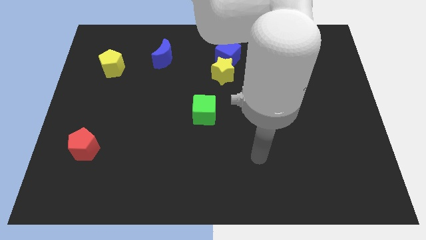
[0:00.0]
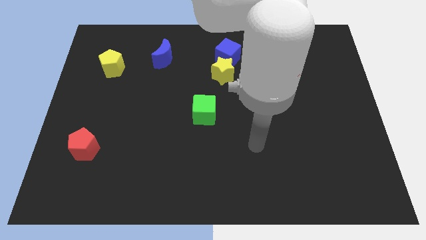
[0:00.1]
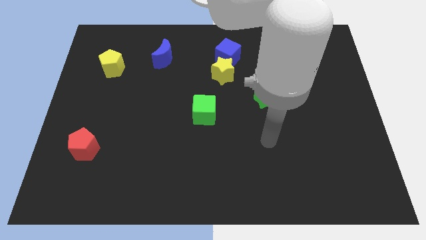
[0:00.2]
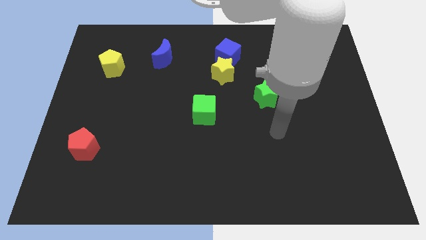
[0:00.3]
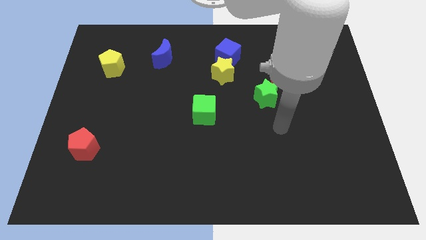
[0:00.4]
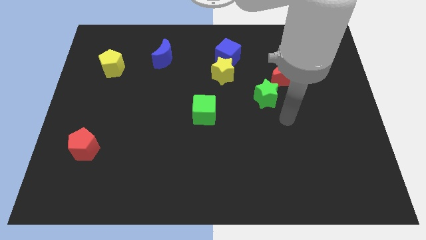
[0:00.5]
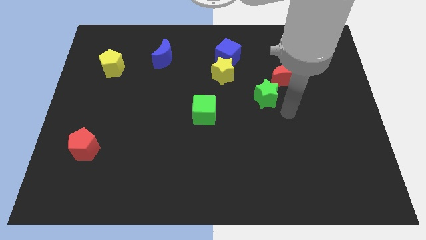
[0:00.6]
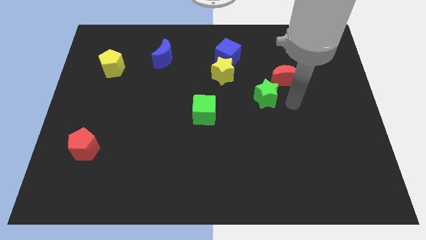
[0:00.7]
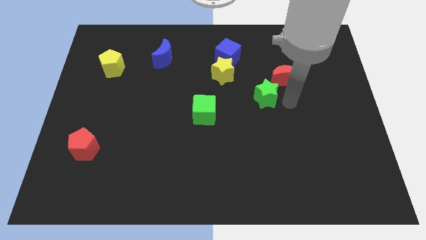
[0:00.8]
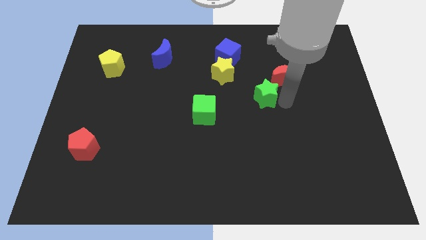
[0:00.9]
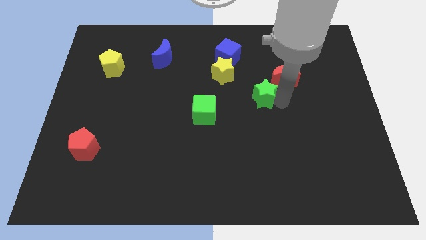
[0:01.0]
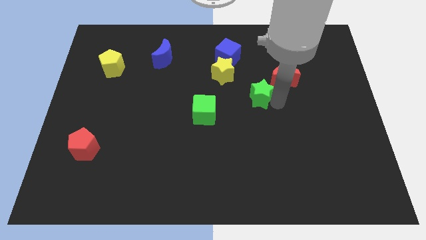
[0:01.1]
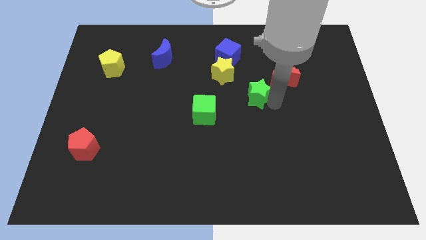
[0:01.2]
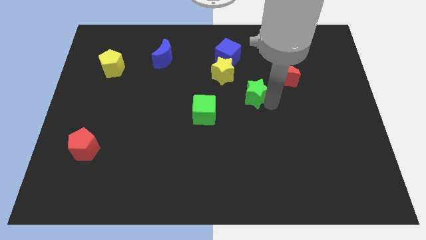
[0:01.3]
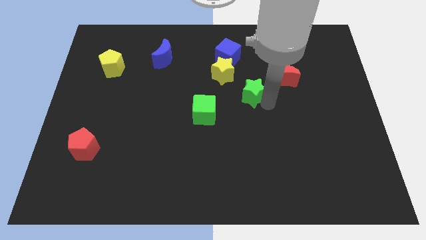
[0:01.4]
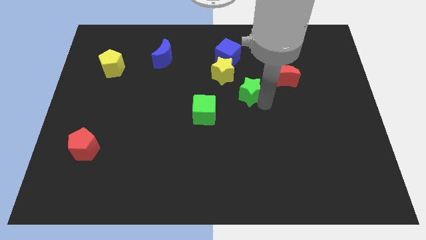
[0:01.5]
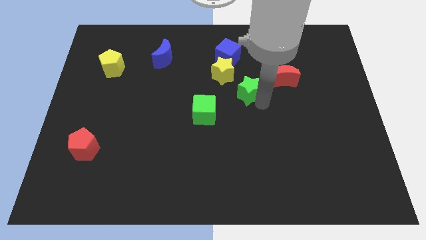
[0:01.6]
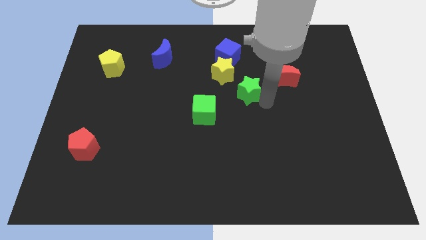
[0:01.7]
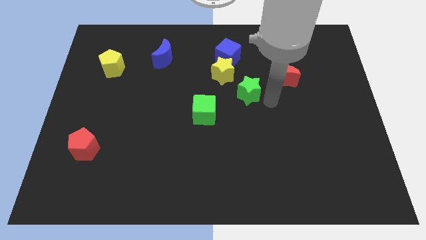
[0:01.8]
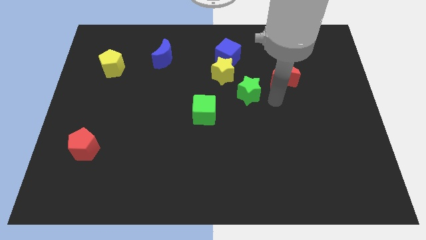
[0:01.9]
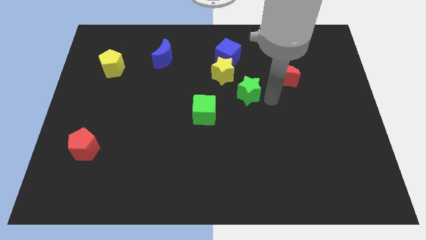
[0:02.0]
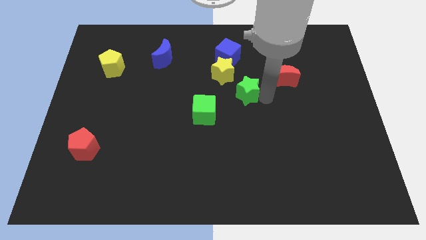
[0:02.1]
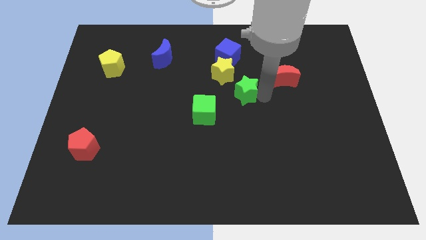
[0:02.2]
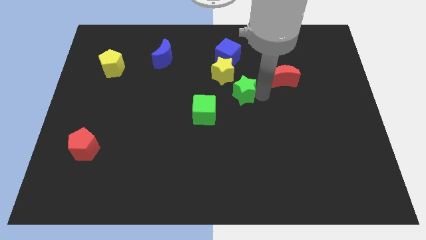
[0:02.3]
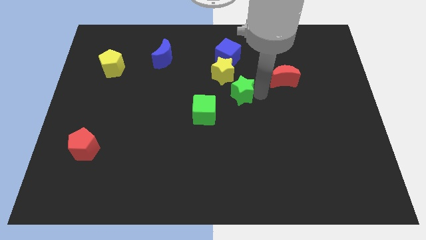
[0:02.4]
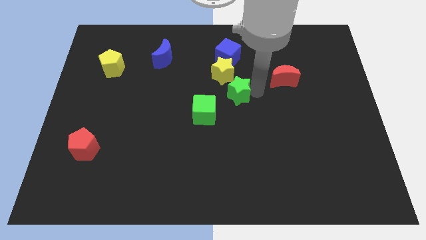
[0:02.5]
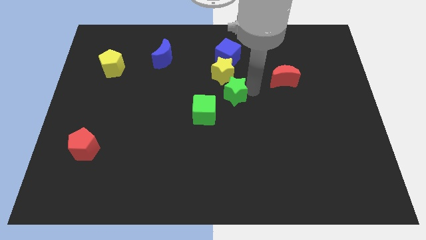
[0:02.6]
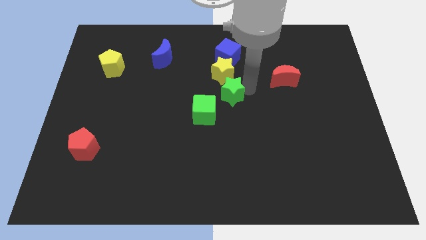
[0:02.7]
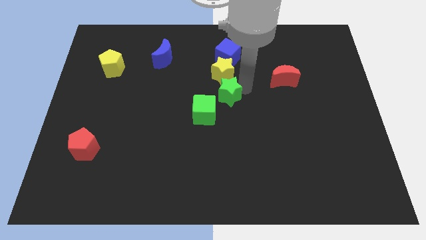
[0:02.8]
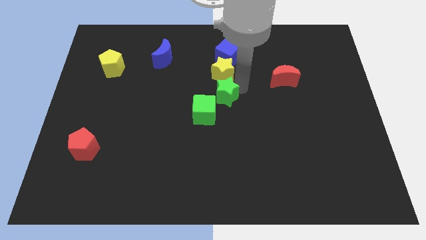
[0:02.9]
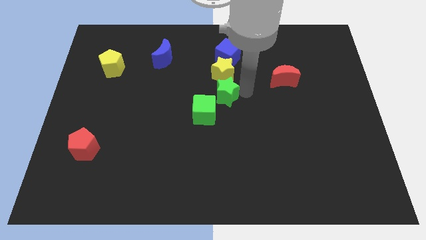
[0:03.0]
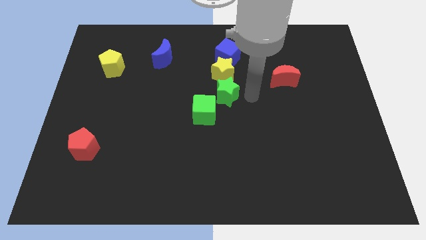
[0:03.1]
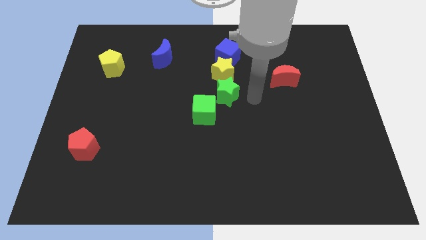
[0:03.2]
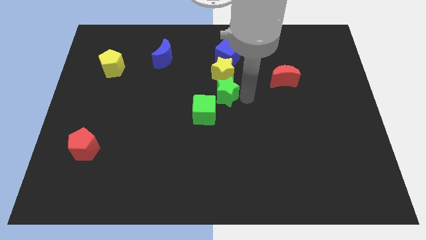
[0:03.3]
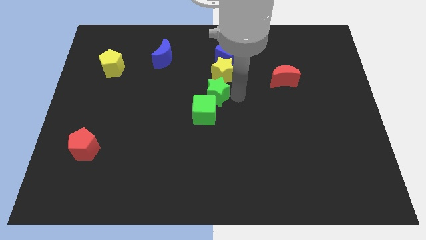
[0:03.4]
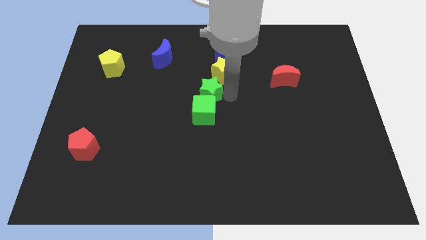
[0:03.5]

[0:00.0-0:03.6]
slightly push the green star diagonally upwards and left

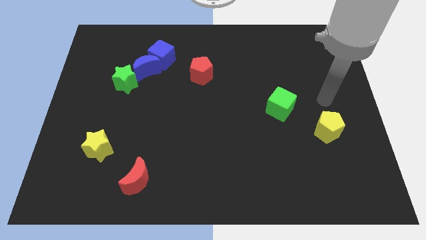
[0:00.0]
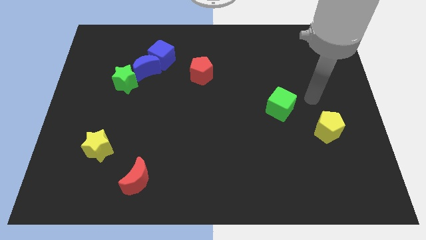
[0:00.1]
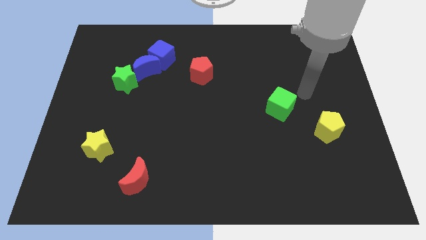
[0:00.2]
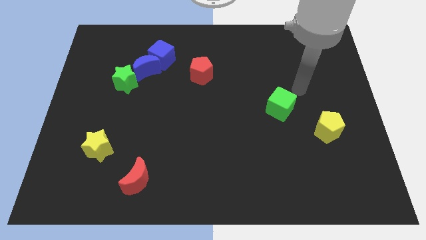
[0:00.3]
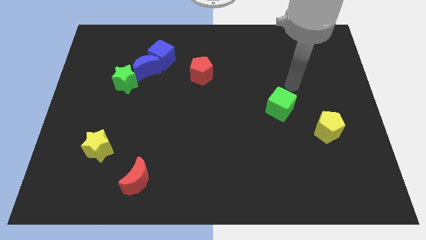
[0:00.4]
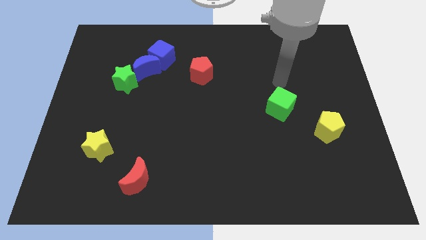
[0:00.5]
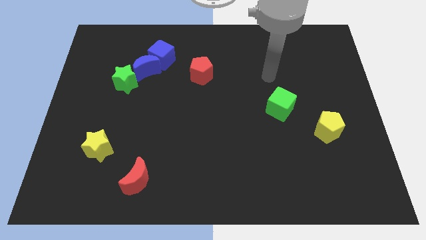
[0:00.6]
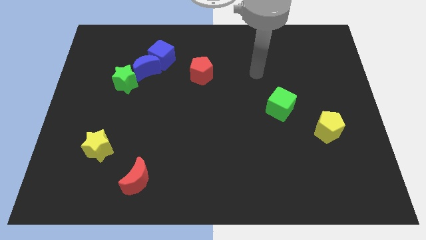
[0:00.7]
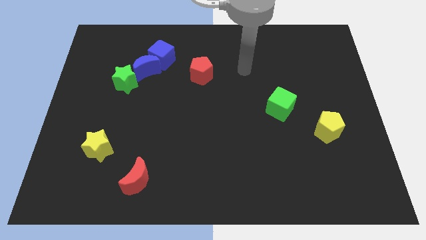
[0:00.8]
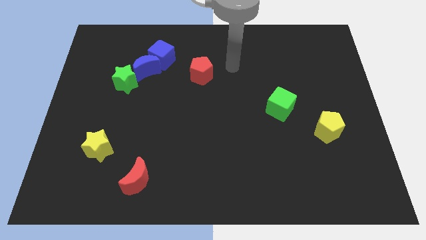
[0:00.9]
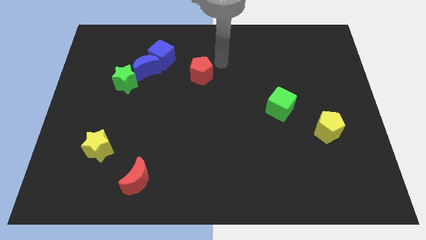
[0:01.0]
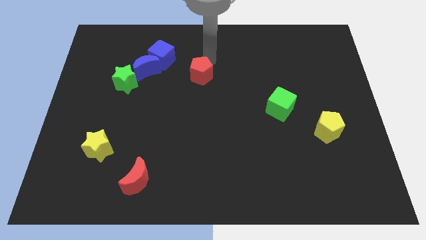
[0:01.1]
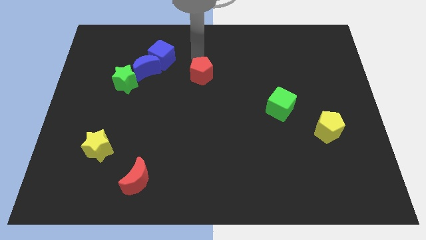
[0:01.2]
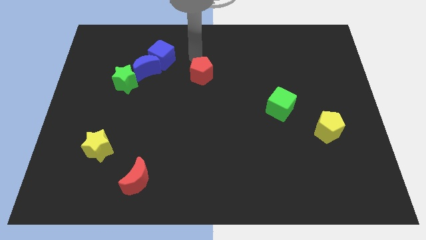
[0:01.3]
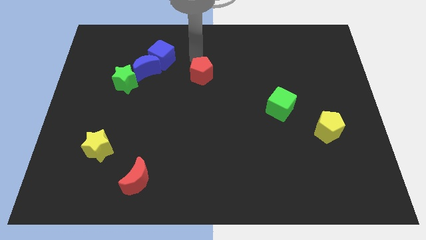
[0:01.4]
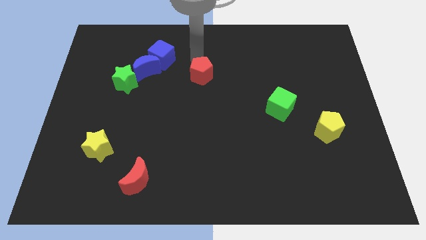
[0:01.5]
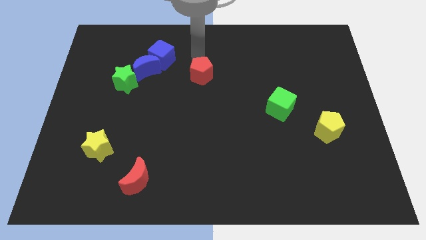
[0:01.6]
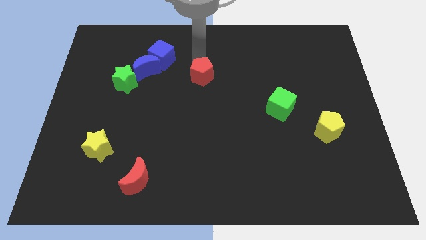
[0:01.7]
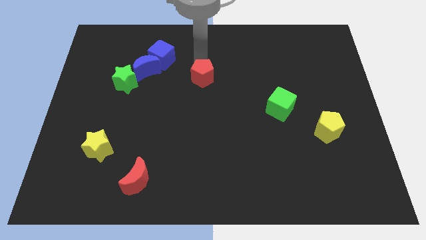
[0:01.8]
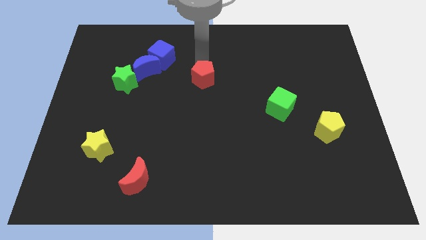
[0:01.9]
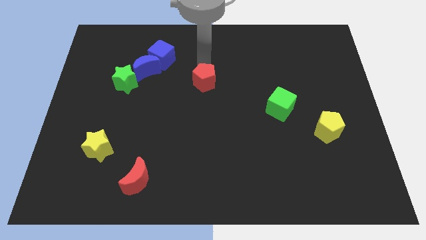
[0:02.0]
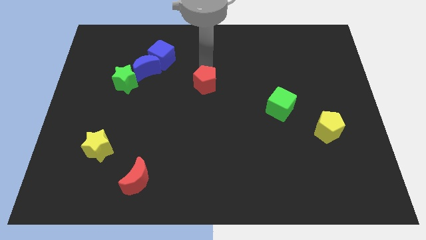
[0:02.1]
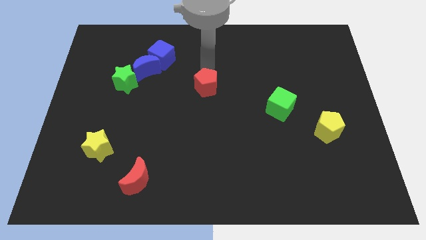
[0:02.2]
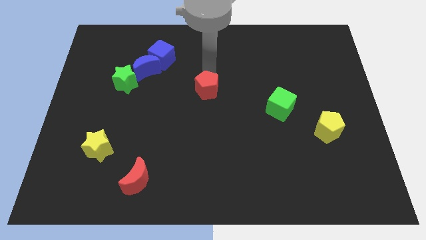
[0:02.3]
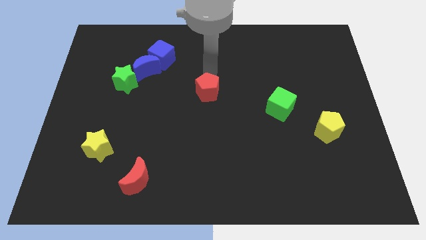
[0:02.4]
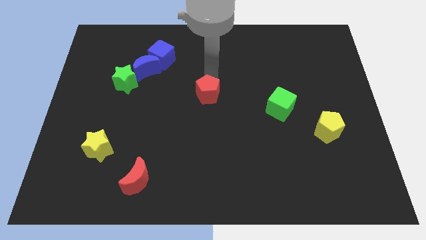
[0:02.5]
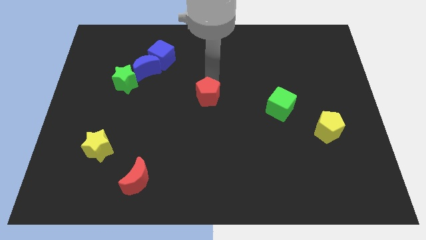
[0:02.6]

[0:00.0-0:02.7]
slightly slide the red pentagon downwards

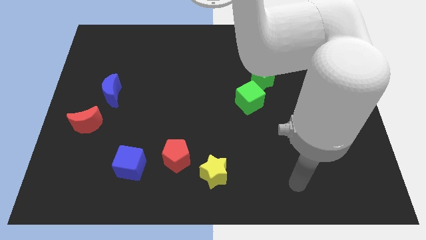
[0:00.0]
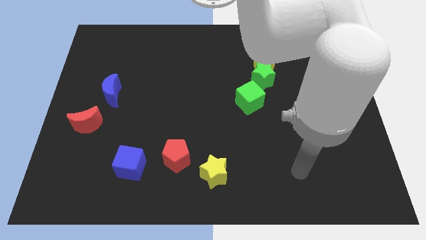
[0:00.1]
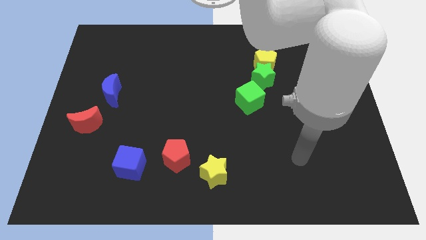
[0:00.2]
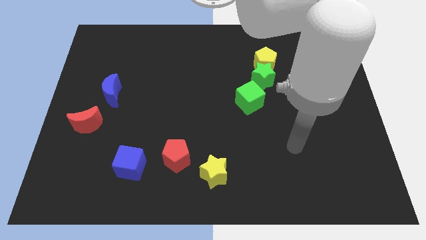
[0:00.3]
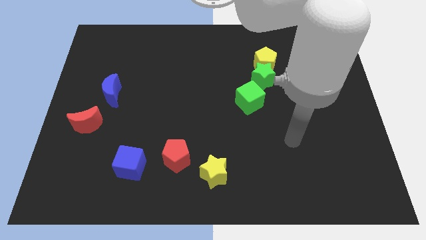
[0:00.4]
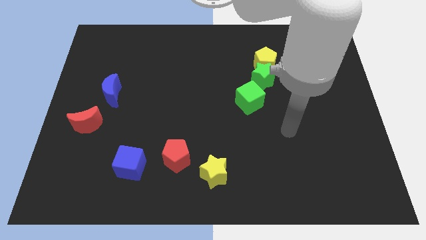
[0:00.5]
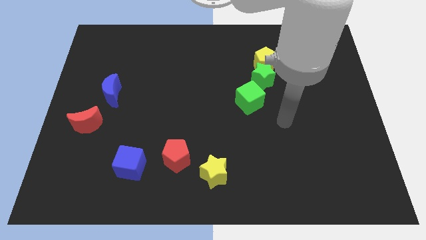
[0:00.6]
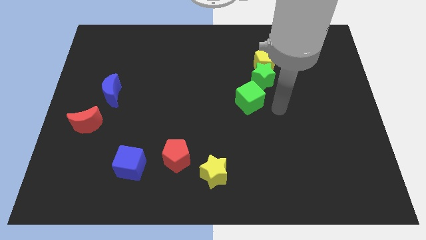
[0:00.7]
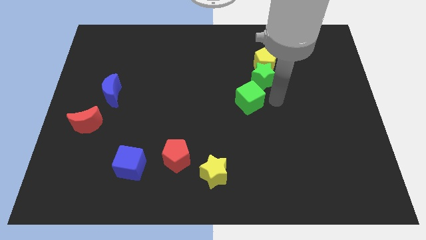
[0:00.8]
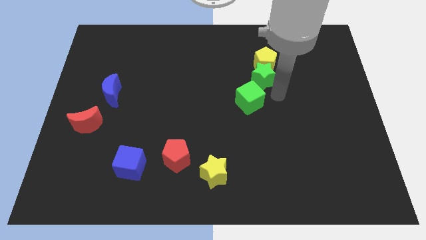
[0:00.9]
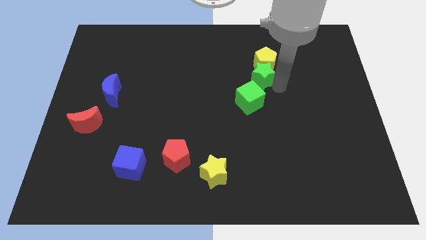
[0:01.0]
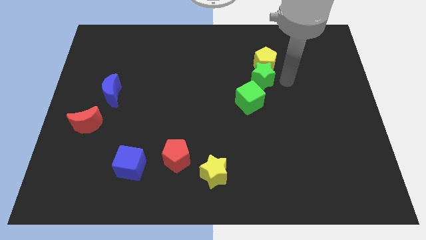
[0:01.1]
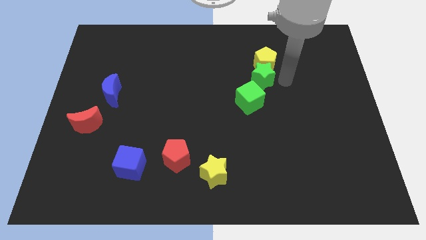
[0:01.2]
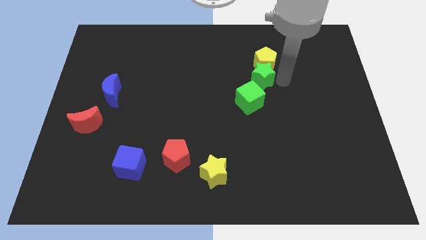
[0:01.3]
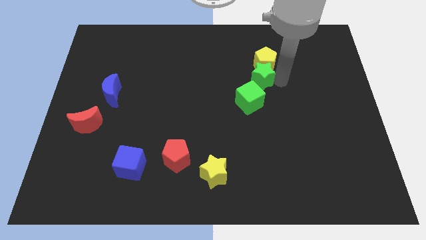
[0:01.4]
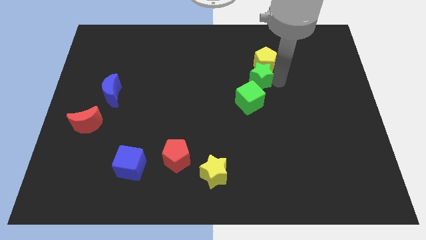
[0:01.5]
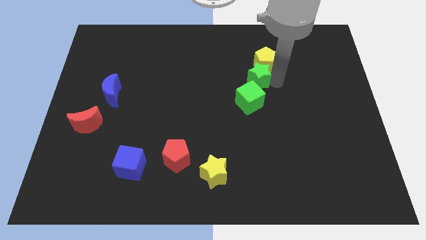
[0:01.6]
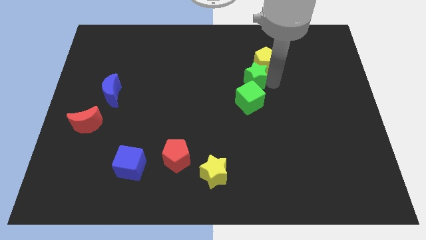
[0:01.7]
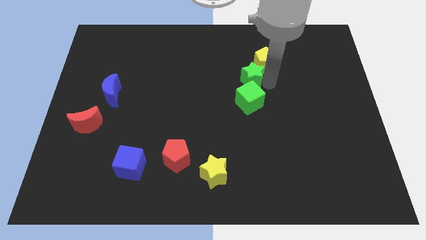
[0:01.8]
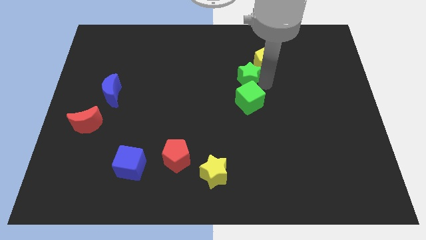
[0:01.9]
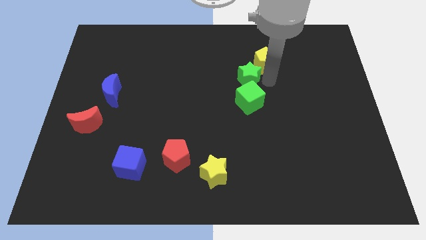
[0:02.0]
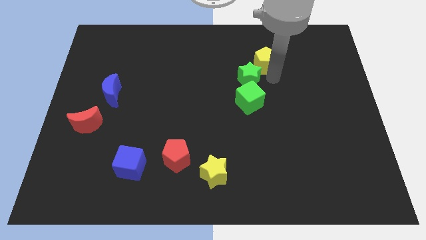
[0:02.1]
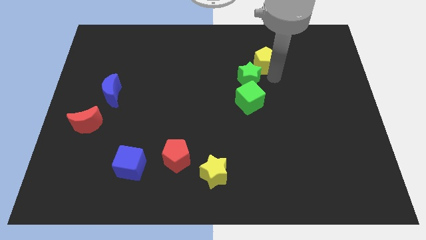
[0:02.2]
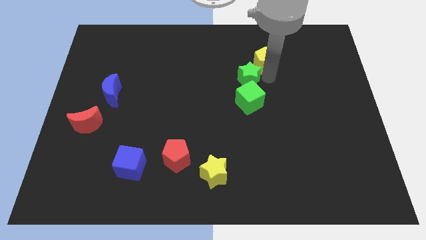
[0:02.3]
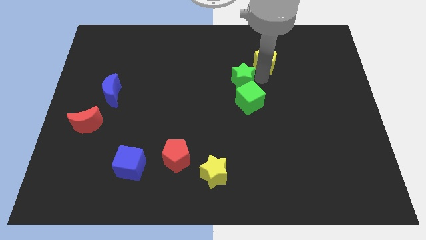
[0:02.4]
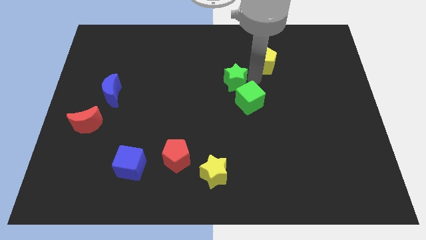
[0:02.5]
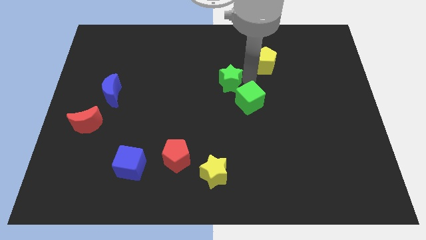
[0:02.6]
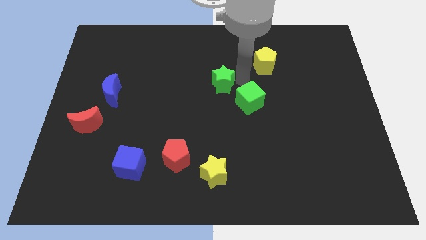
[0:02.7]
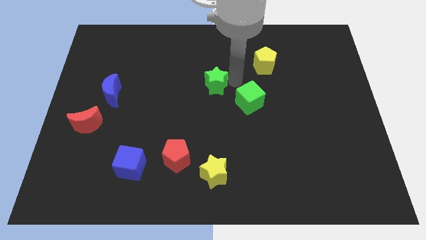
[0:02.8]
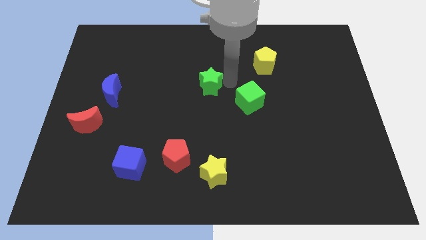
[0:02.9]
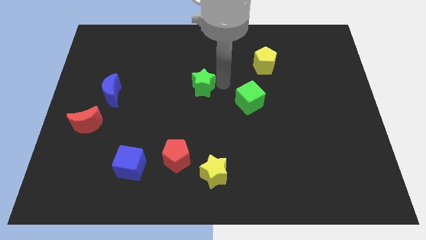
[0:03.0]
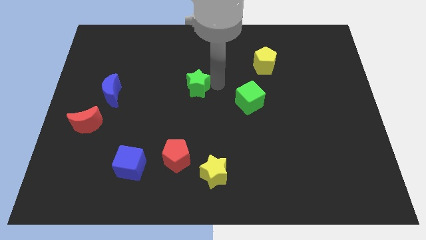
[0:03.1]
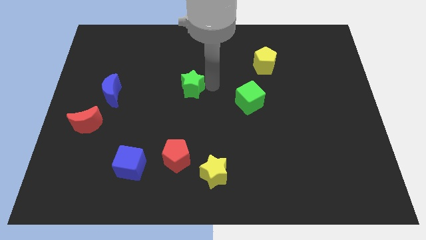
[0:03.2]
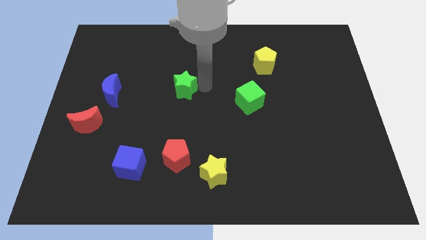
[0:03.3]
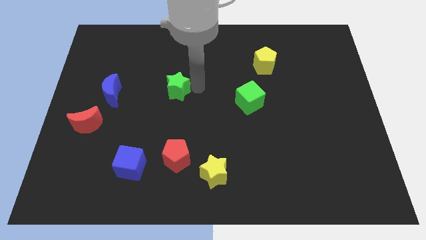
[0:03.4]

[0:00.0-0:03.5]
slide the green star to the left
